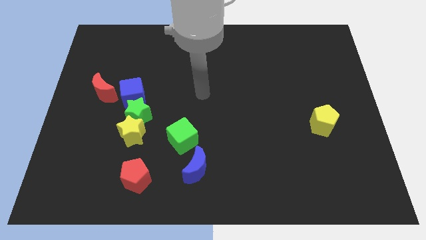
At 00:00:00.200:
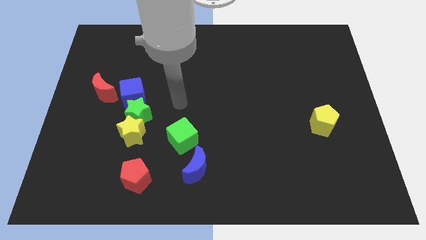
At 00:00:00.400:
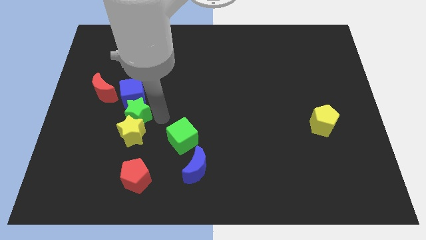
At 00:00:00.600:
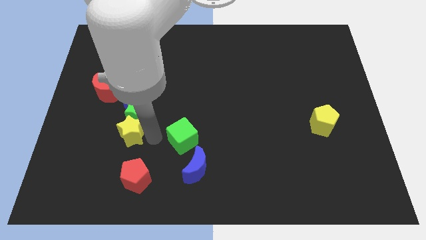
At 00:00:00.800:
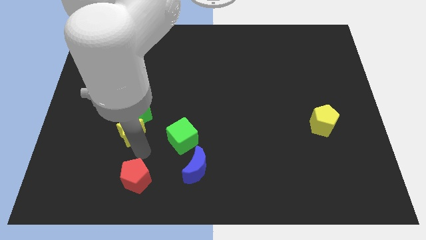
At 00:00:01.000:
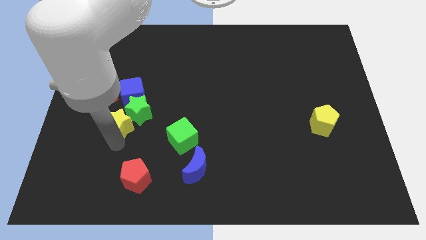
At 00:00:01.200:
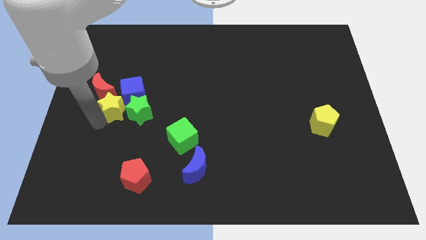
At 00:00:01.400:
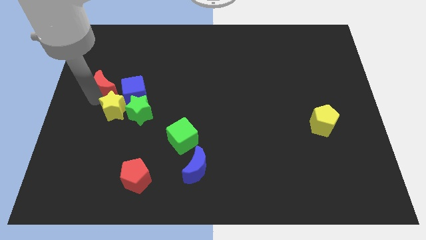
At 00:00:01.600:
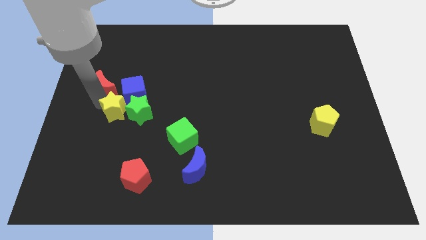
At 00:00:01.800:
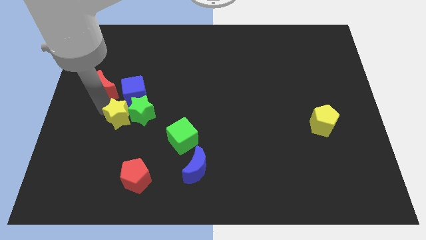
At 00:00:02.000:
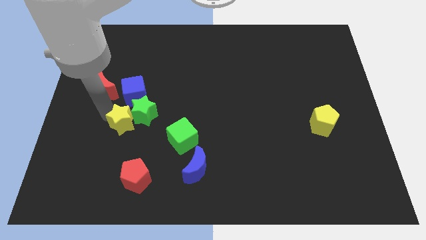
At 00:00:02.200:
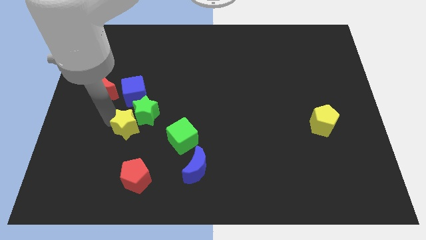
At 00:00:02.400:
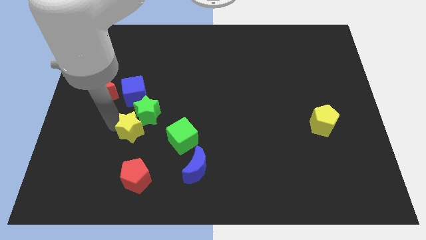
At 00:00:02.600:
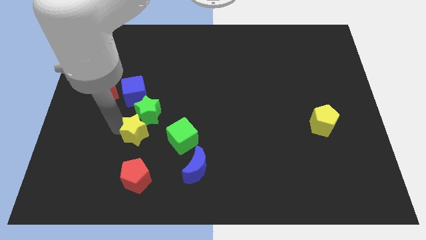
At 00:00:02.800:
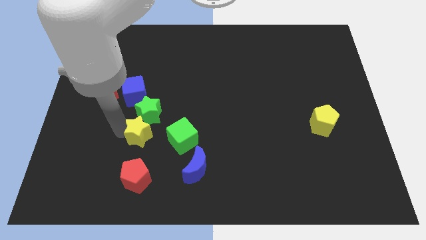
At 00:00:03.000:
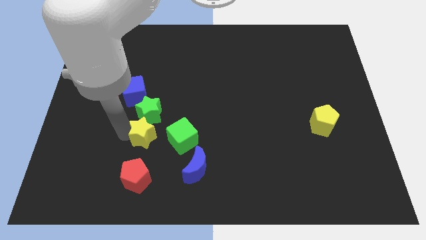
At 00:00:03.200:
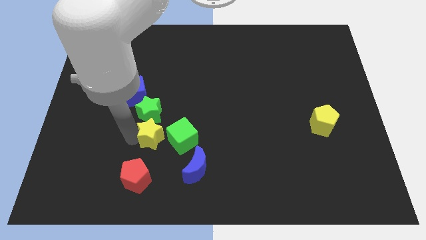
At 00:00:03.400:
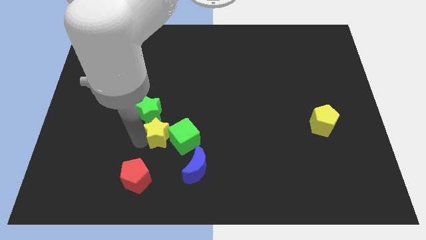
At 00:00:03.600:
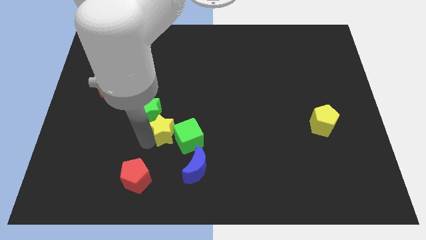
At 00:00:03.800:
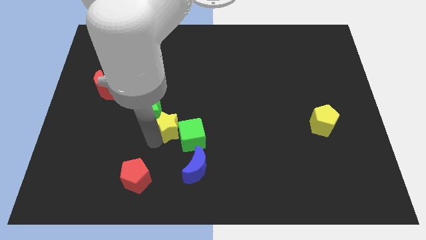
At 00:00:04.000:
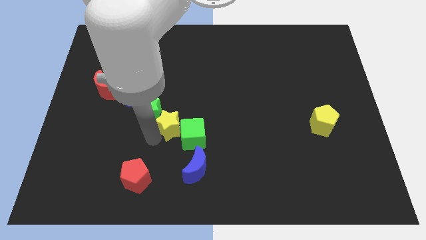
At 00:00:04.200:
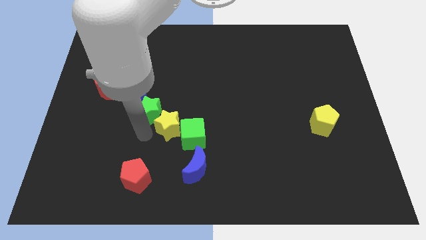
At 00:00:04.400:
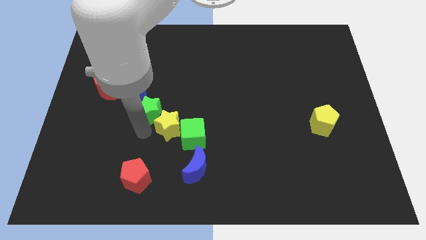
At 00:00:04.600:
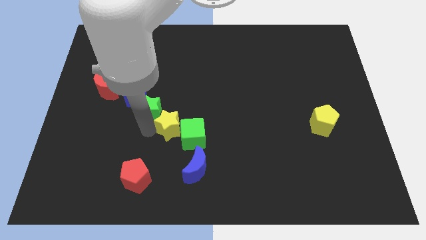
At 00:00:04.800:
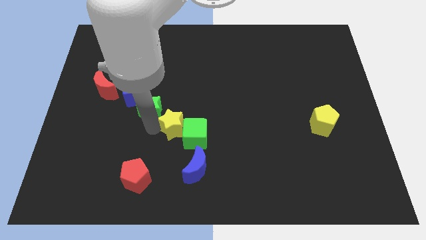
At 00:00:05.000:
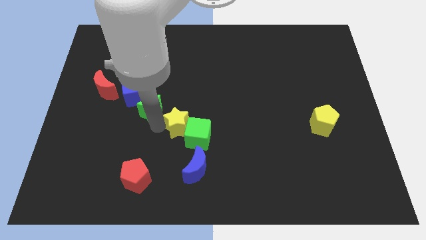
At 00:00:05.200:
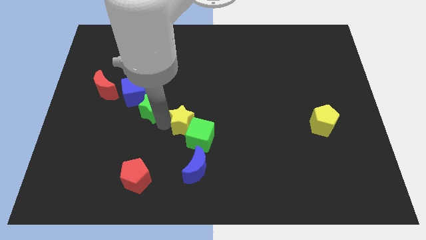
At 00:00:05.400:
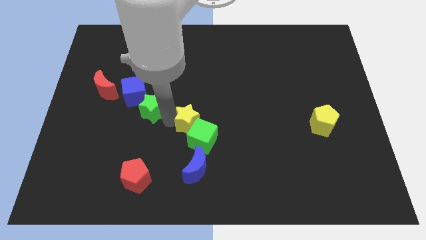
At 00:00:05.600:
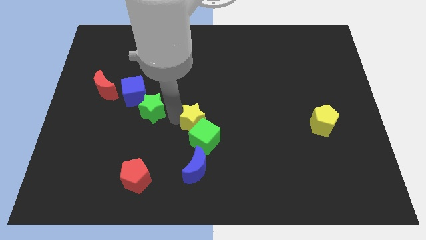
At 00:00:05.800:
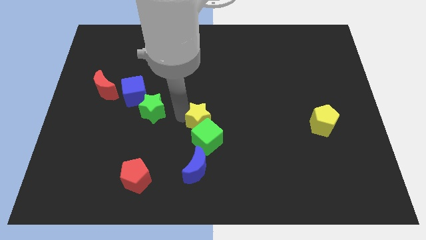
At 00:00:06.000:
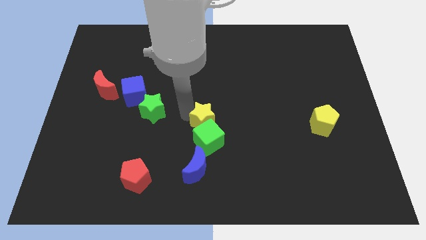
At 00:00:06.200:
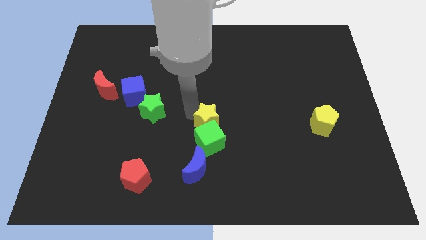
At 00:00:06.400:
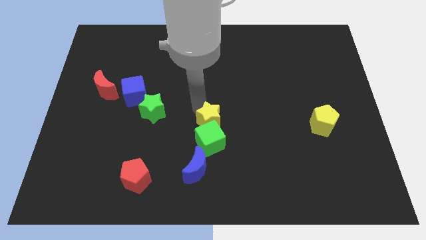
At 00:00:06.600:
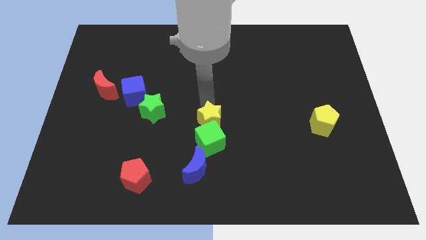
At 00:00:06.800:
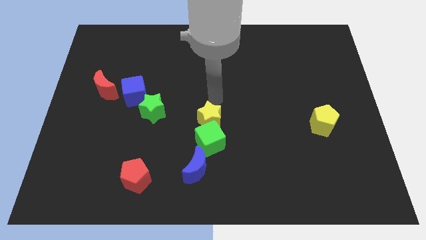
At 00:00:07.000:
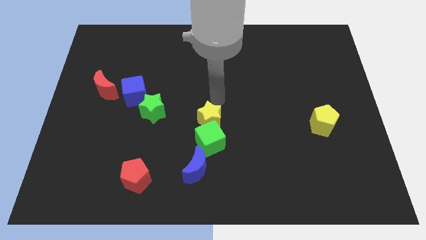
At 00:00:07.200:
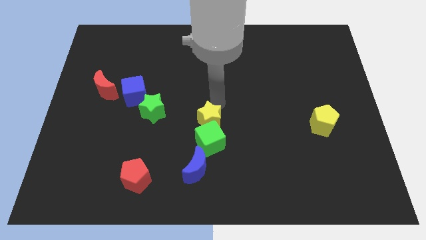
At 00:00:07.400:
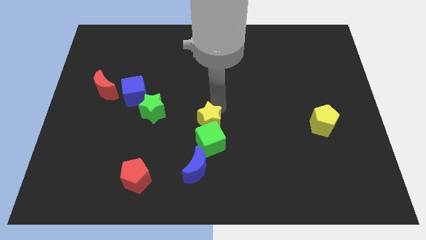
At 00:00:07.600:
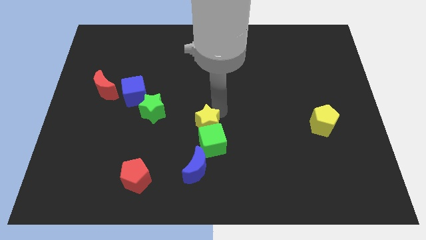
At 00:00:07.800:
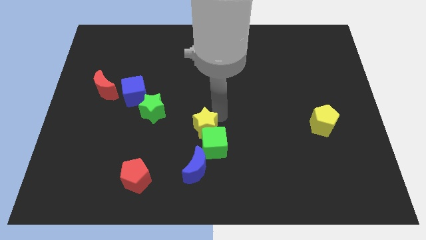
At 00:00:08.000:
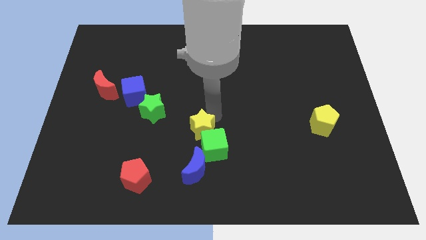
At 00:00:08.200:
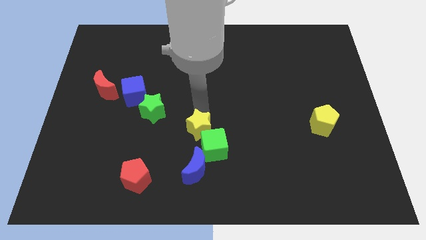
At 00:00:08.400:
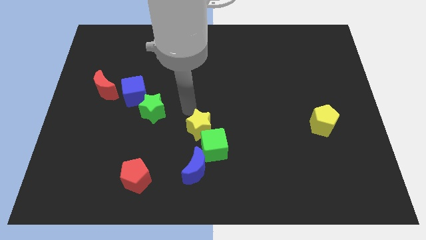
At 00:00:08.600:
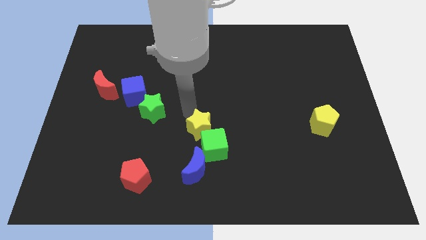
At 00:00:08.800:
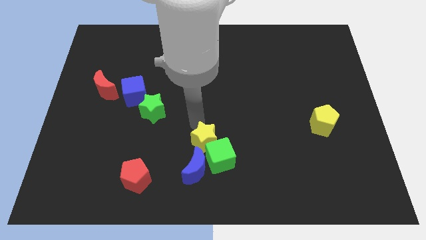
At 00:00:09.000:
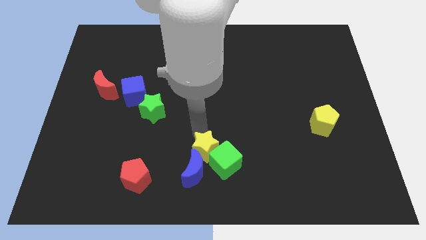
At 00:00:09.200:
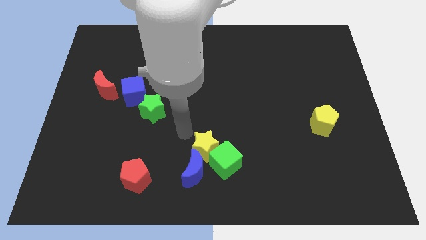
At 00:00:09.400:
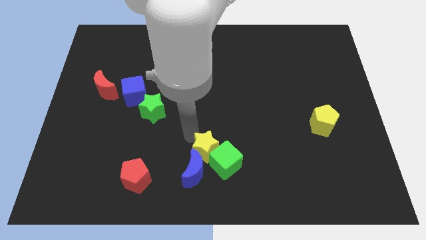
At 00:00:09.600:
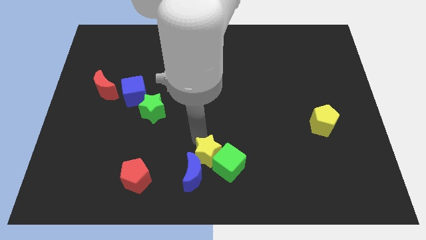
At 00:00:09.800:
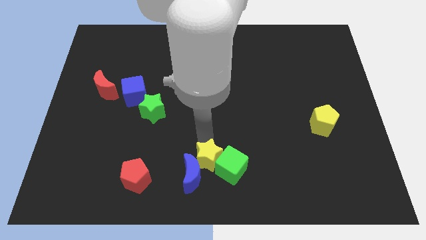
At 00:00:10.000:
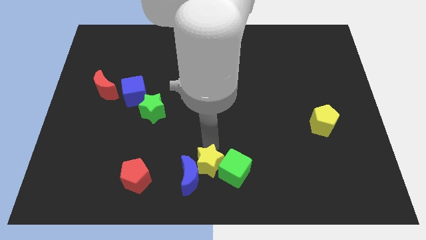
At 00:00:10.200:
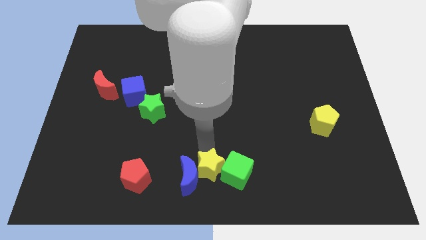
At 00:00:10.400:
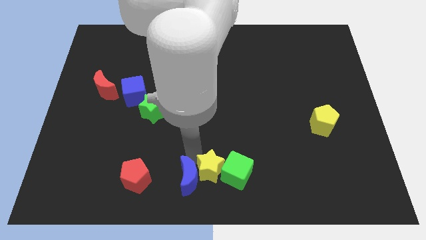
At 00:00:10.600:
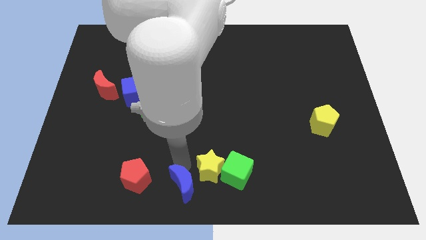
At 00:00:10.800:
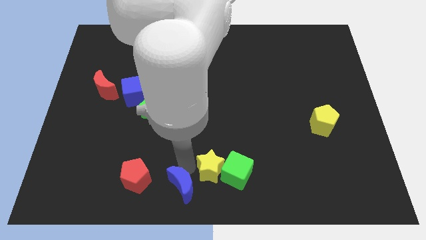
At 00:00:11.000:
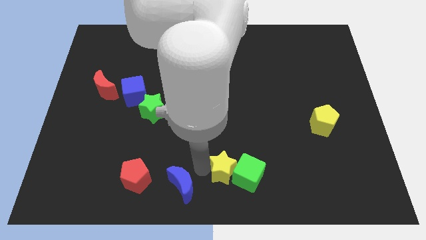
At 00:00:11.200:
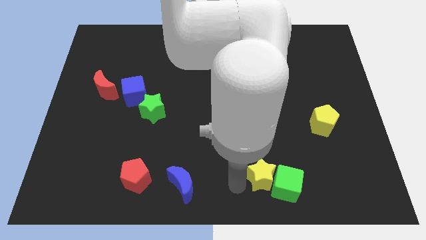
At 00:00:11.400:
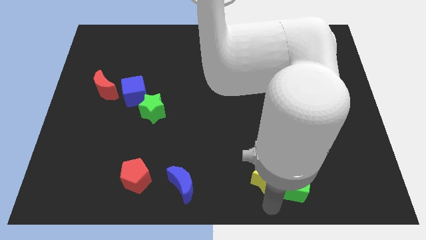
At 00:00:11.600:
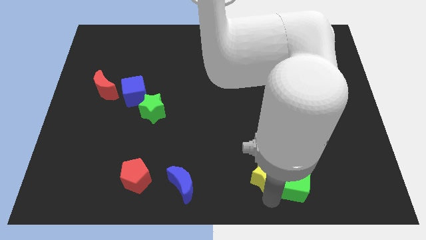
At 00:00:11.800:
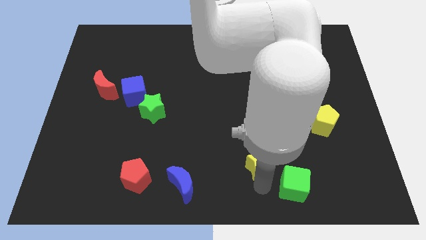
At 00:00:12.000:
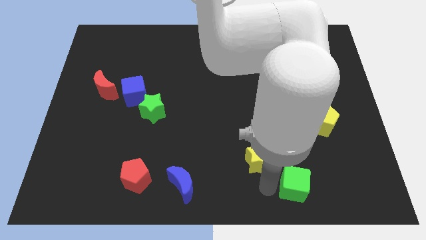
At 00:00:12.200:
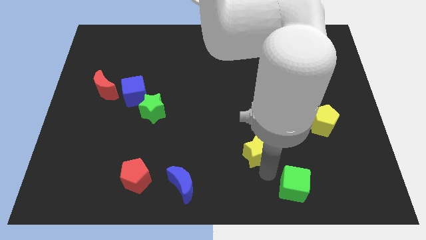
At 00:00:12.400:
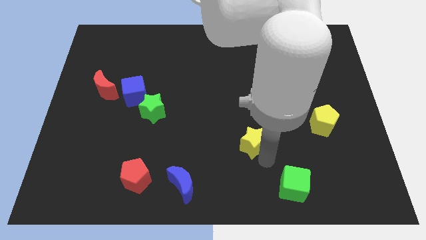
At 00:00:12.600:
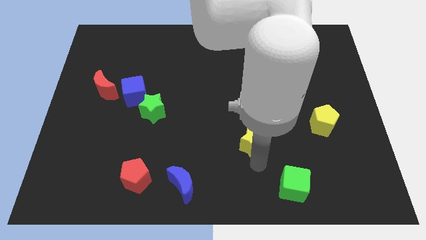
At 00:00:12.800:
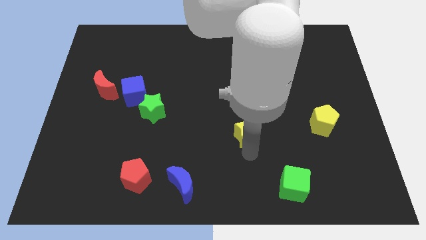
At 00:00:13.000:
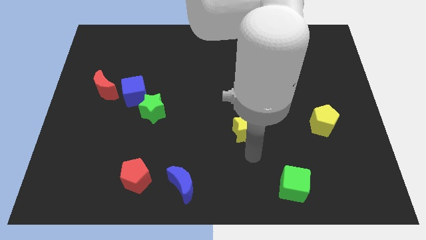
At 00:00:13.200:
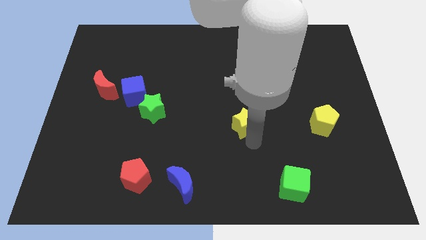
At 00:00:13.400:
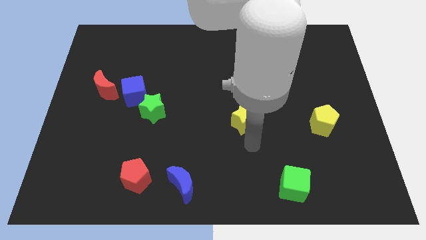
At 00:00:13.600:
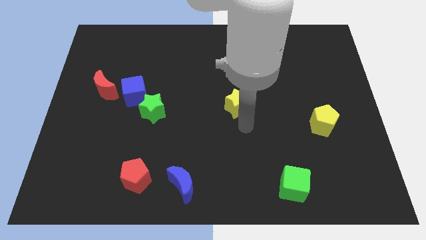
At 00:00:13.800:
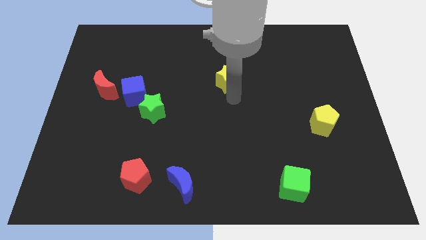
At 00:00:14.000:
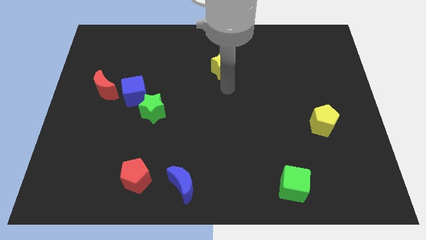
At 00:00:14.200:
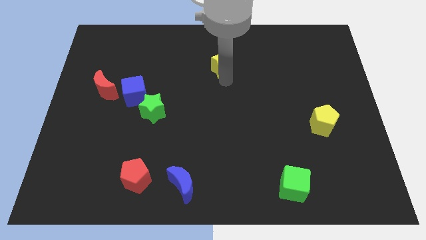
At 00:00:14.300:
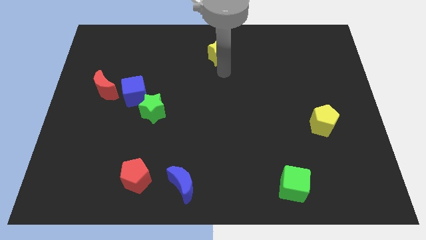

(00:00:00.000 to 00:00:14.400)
move the yellow star to the top side
